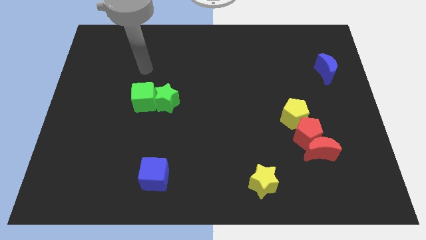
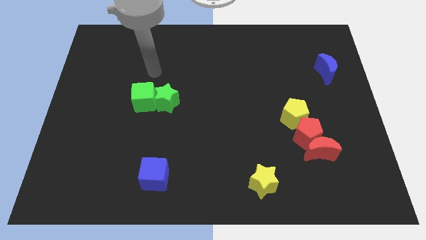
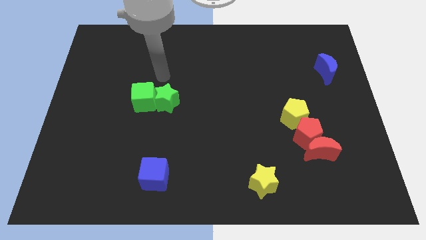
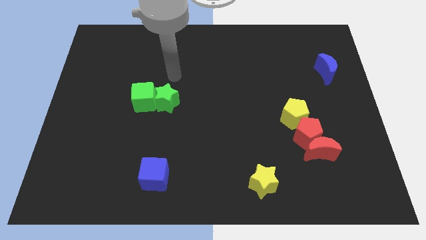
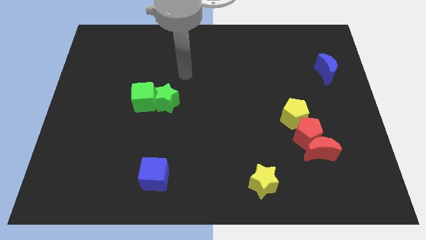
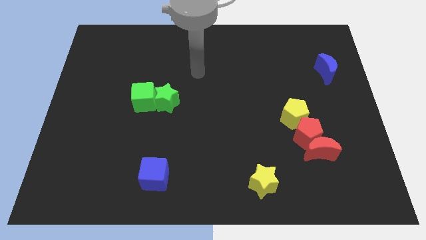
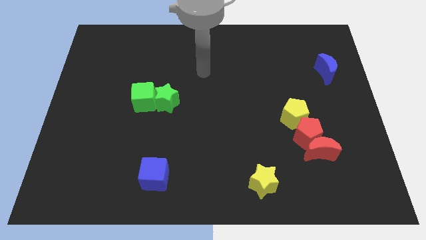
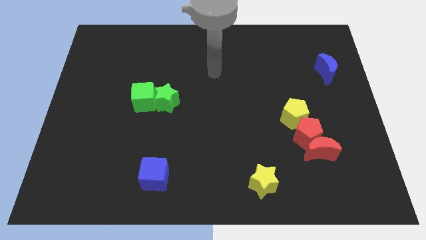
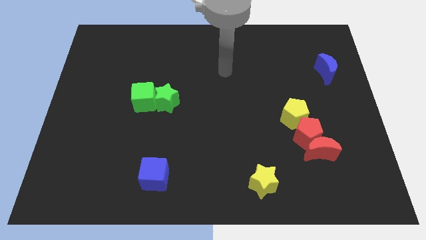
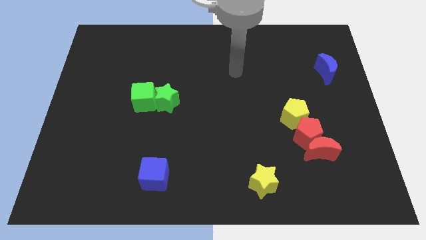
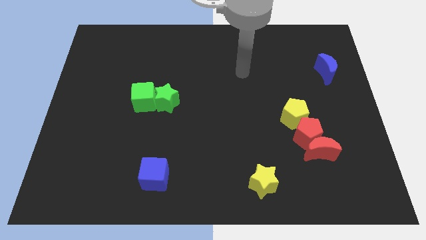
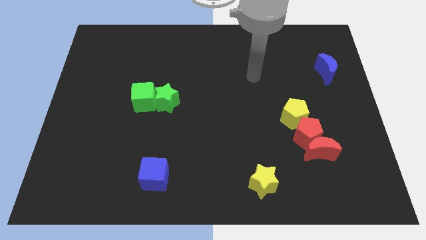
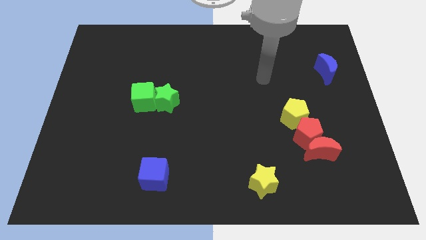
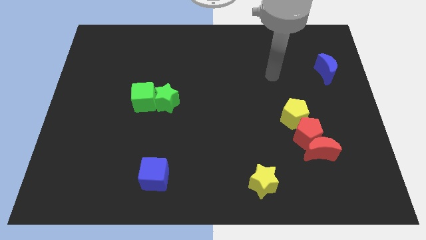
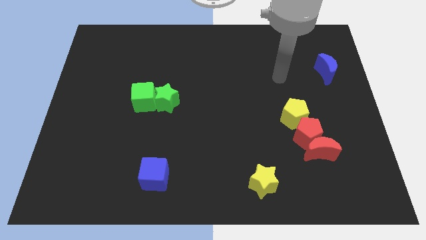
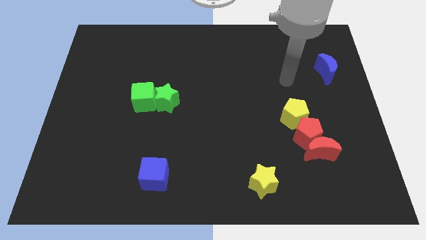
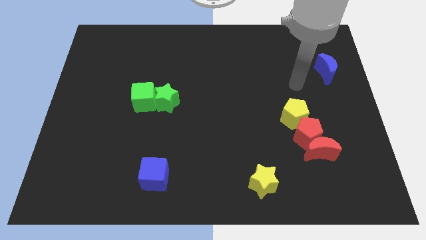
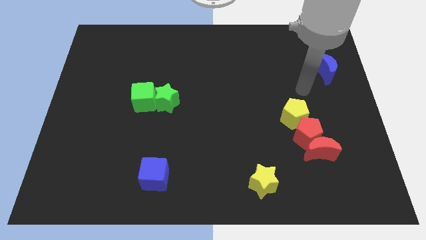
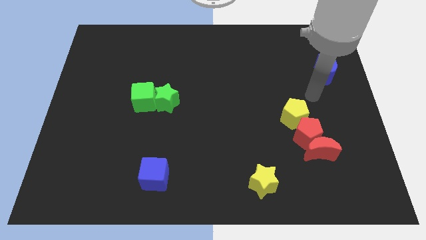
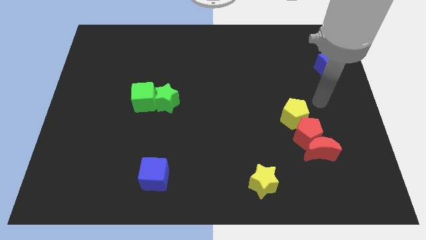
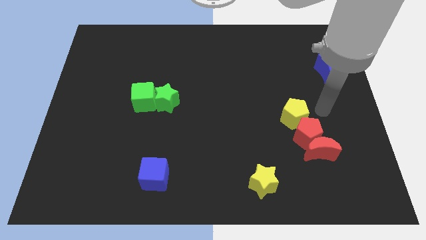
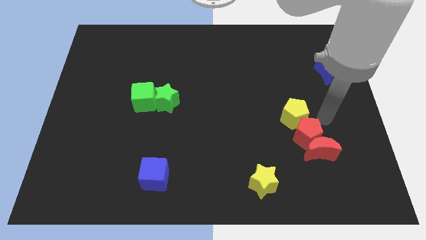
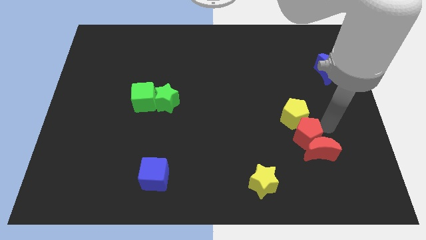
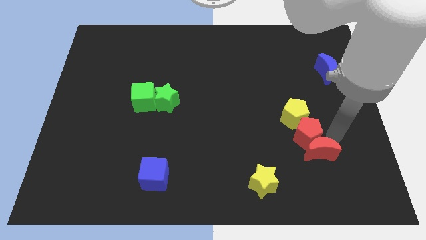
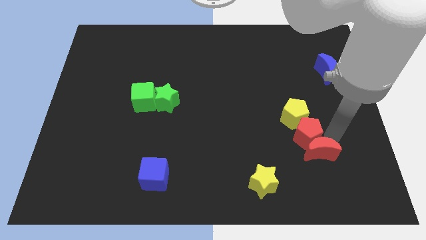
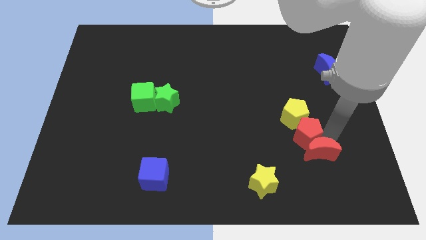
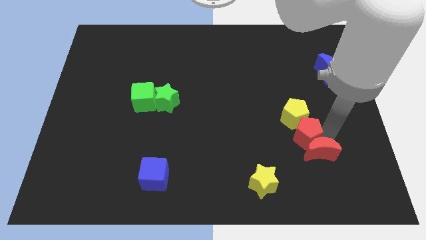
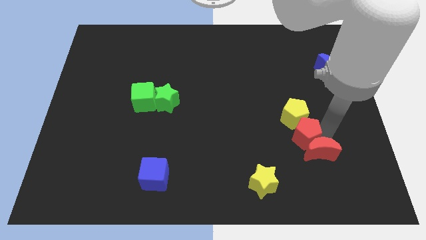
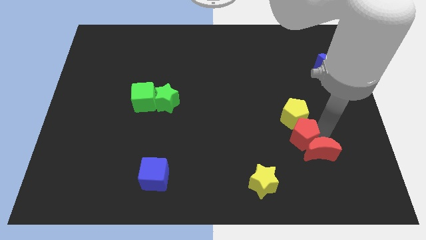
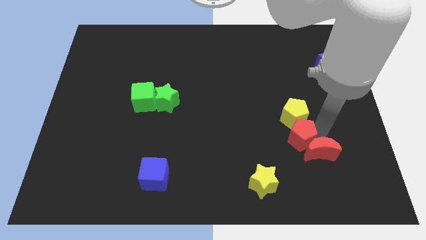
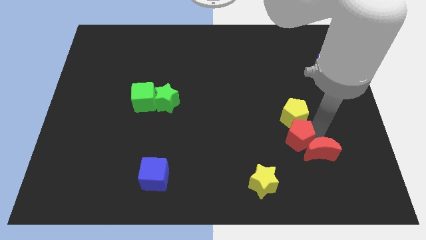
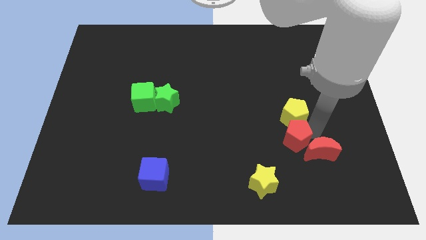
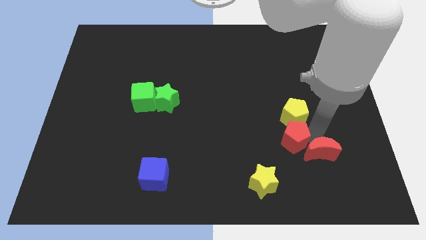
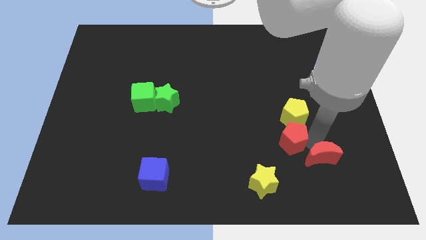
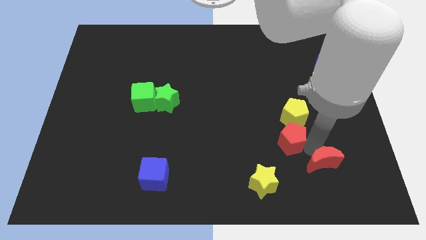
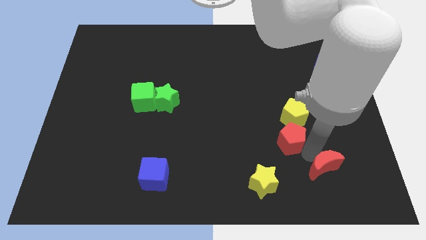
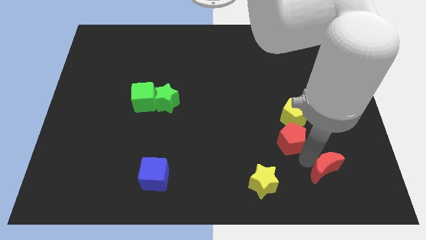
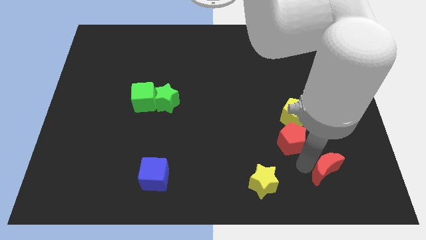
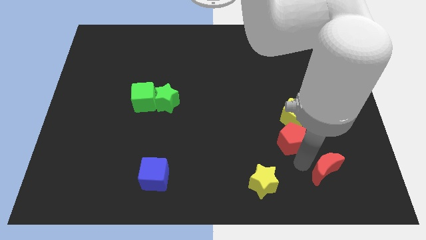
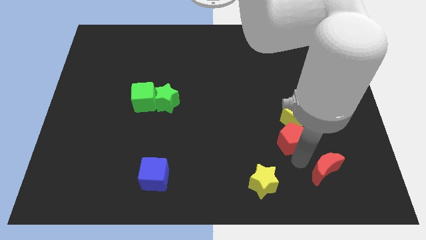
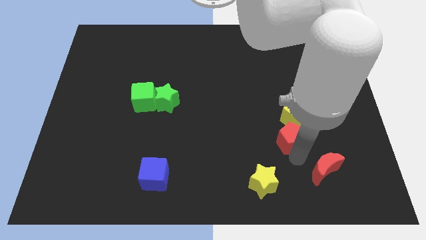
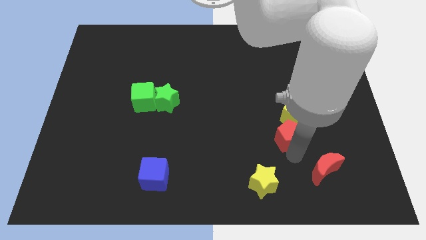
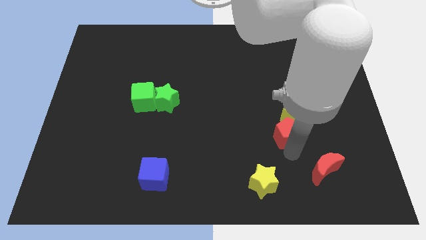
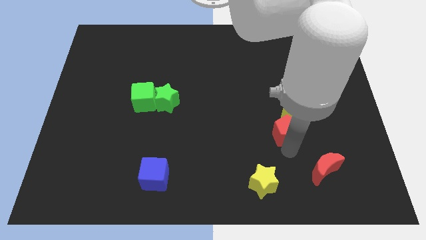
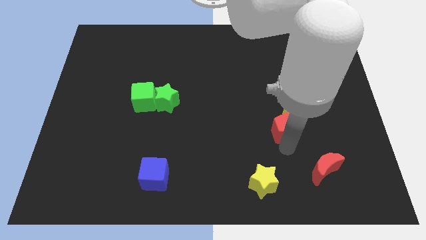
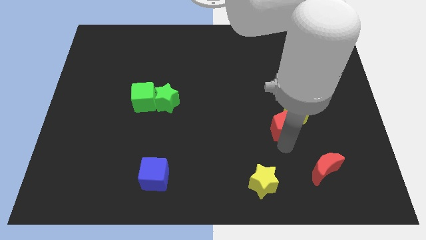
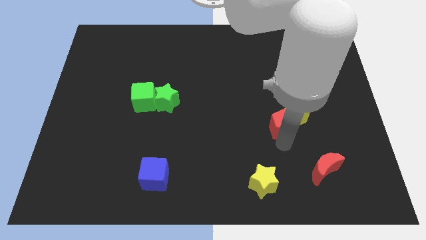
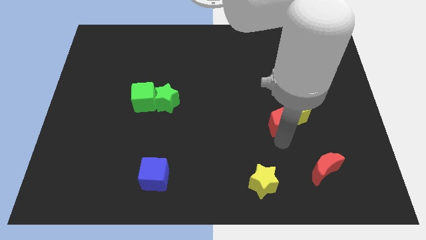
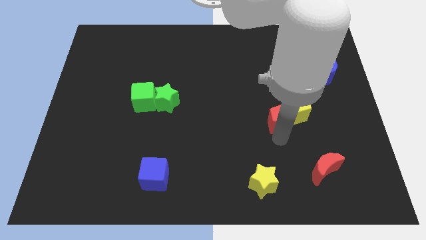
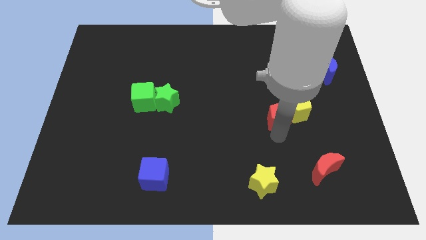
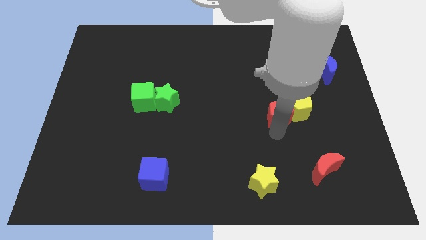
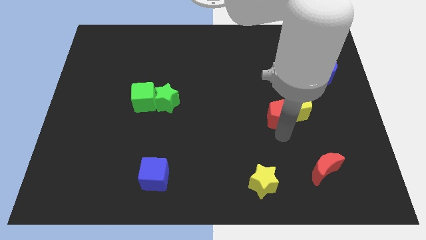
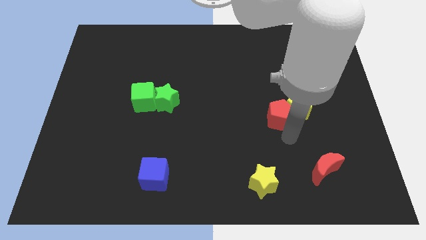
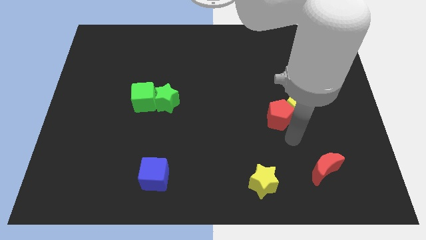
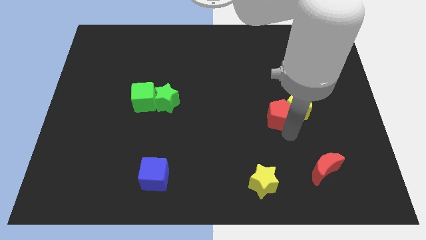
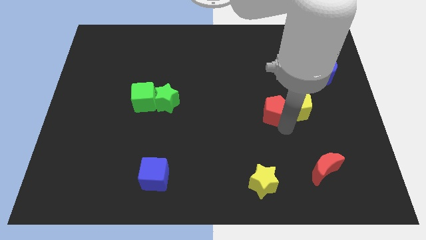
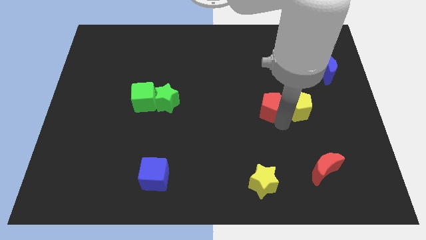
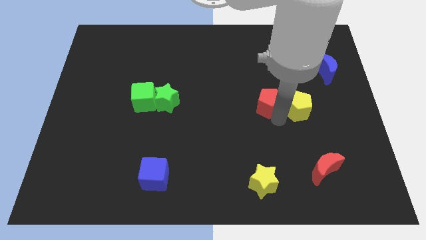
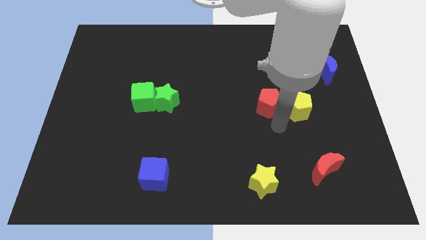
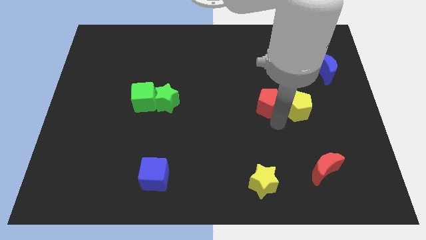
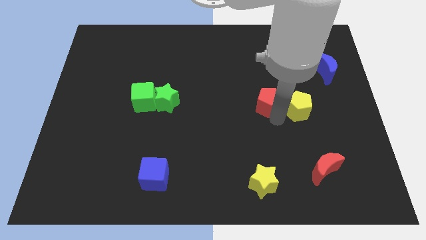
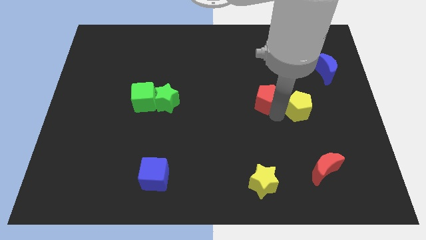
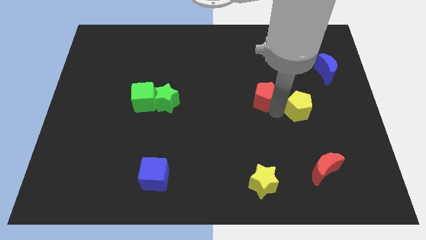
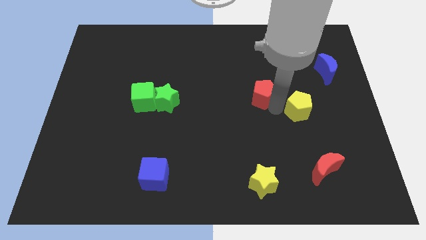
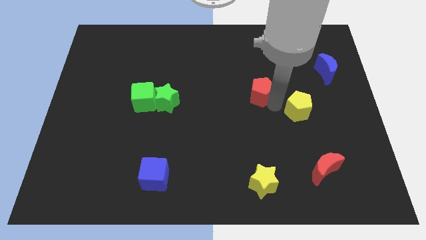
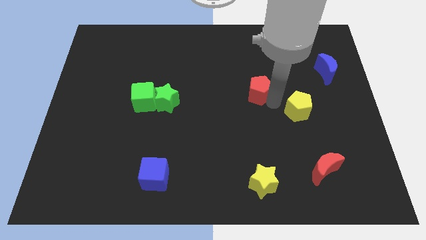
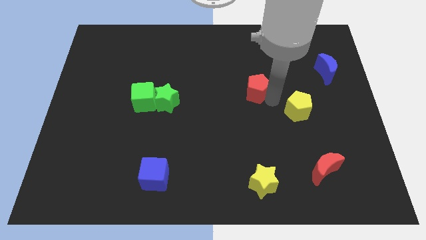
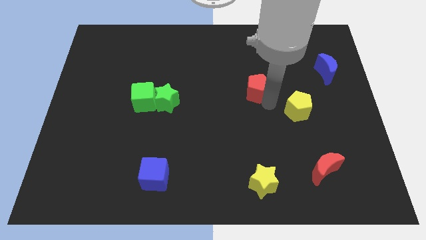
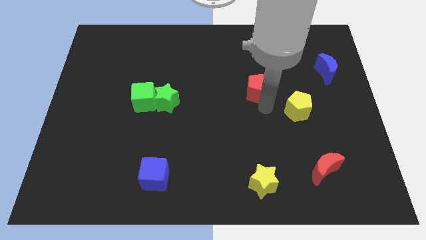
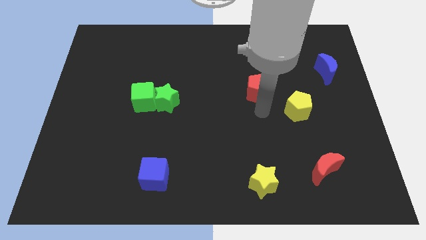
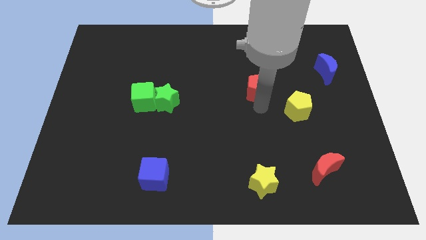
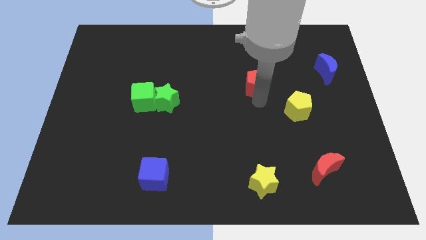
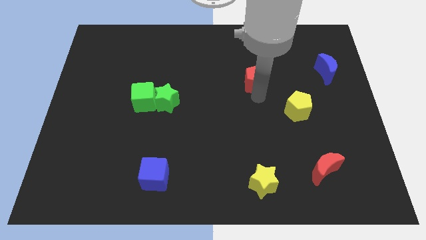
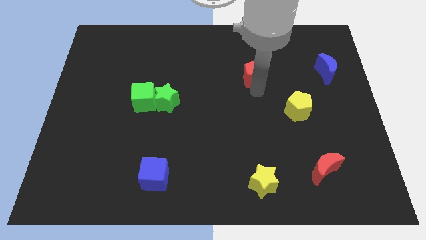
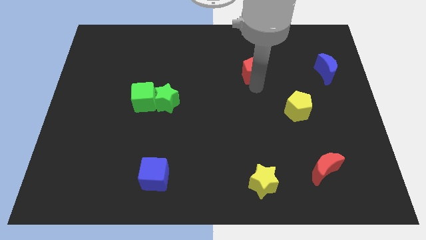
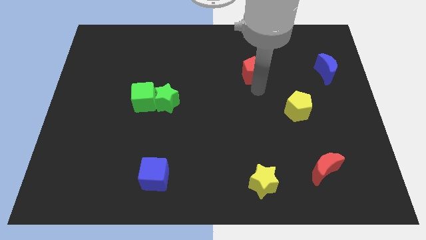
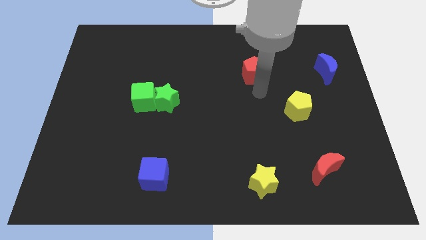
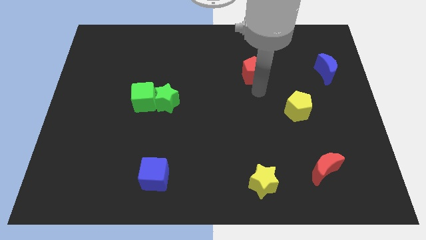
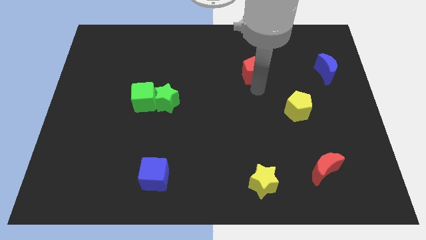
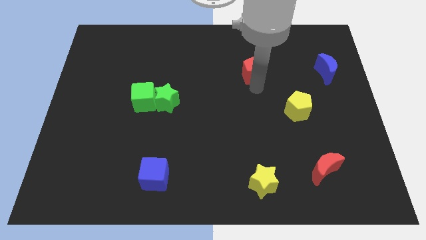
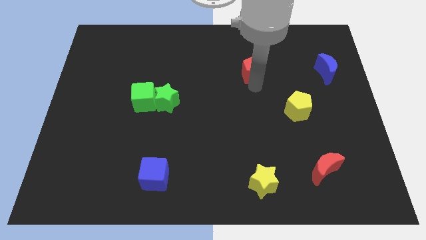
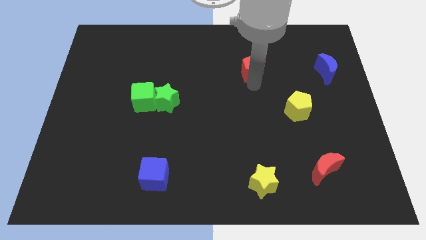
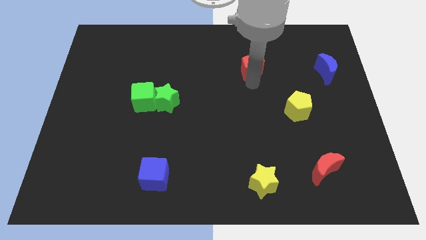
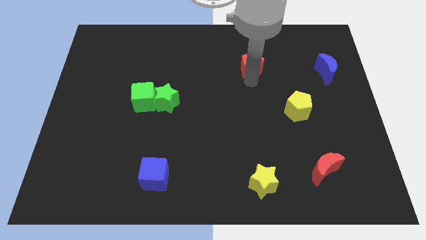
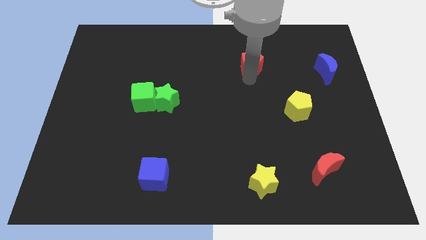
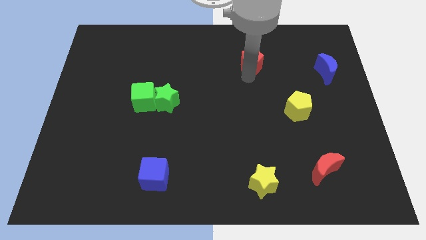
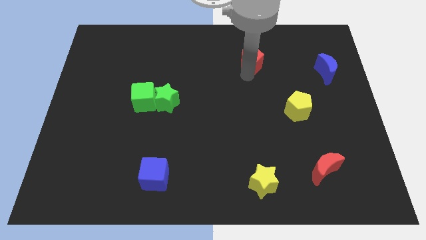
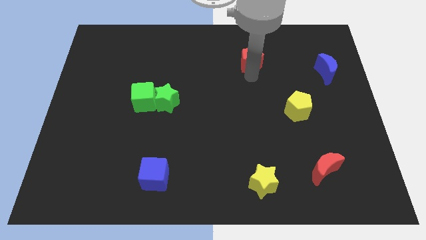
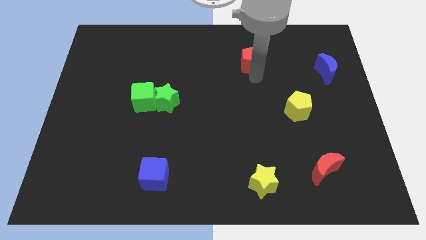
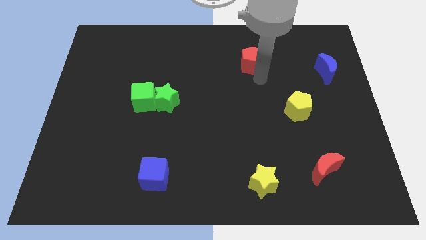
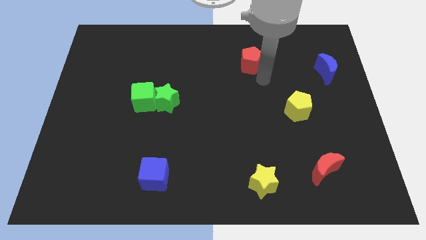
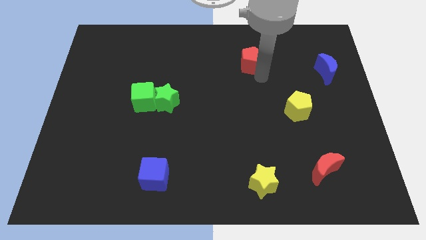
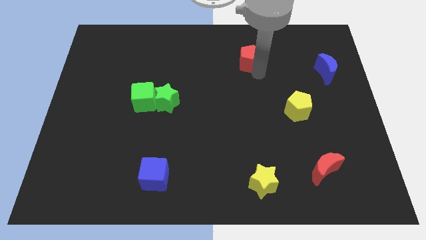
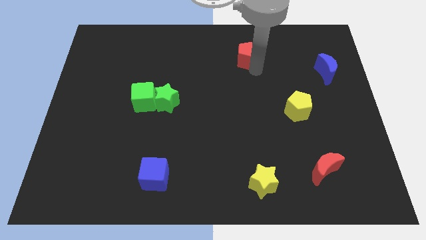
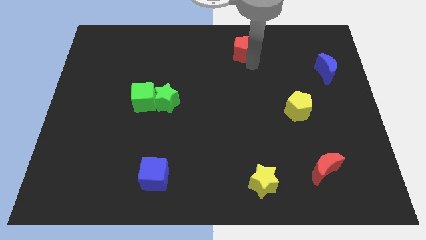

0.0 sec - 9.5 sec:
slide the red pentagon to the towards your base
